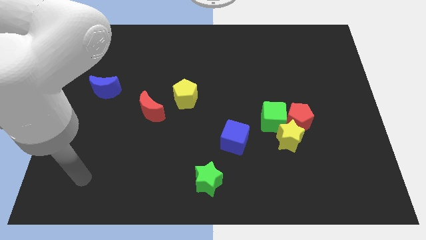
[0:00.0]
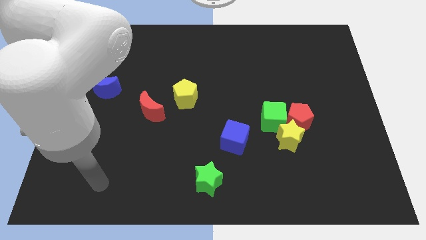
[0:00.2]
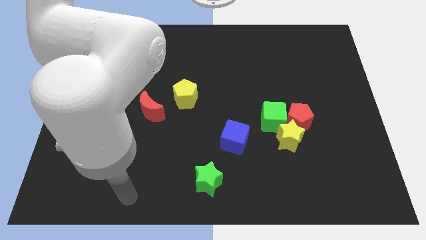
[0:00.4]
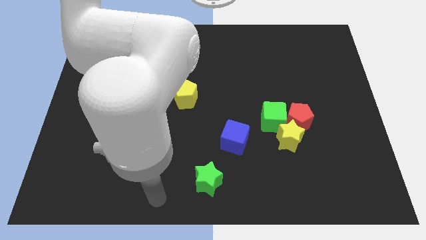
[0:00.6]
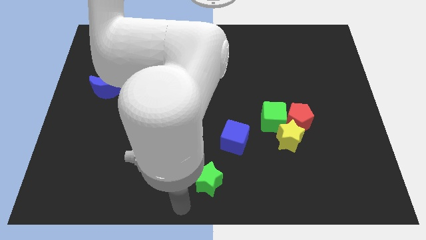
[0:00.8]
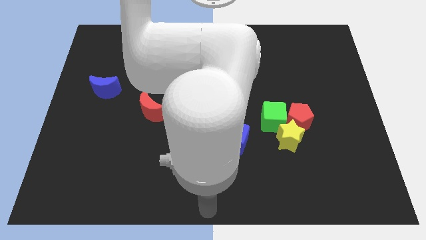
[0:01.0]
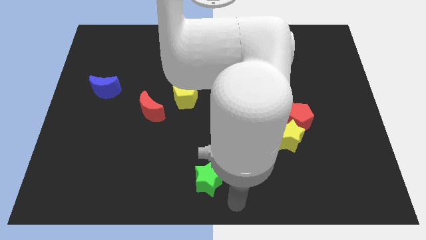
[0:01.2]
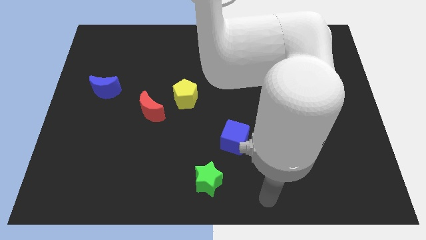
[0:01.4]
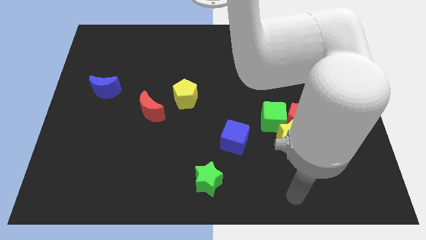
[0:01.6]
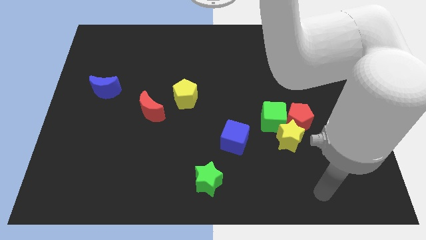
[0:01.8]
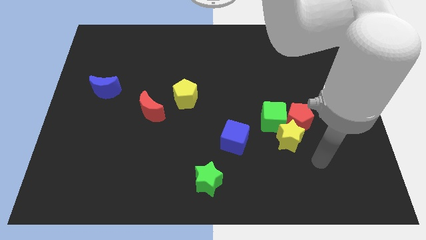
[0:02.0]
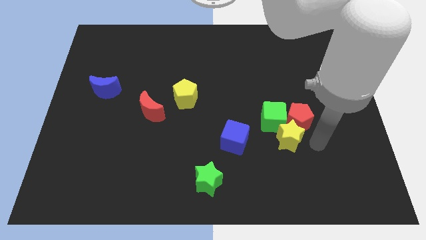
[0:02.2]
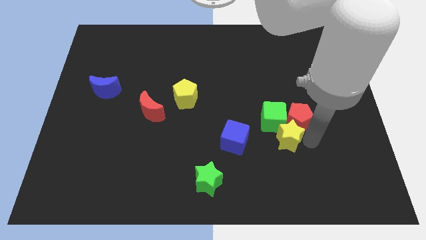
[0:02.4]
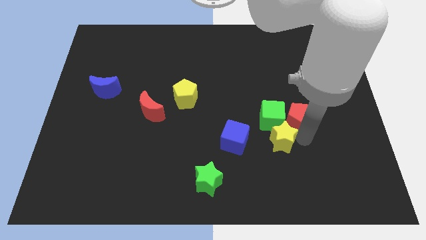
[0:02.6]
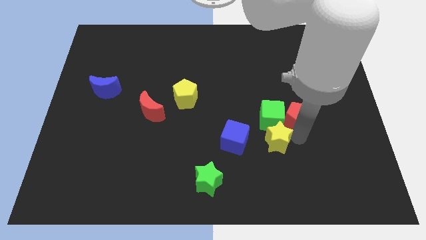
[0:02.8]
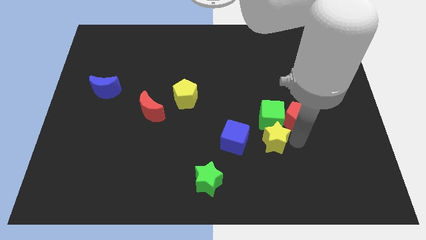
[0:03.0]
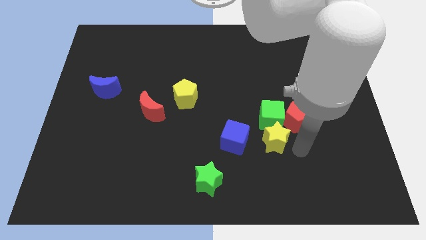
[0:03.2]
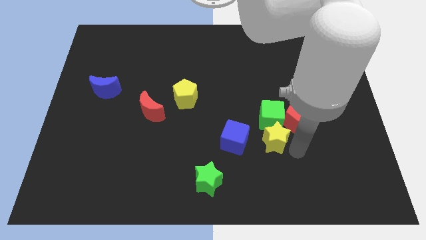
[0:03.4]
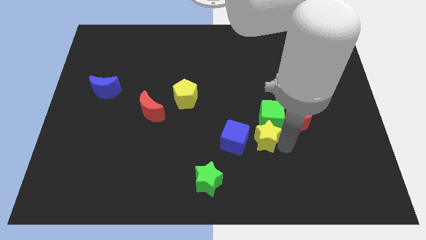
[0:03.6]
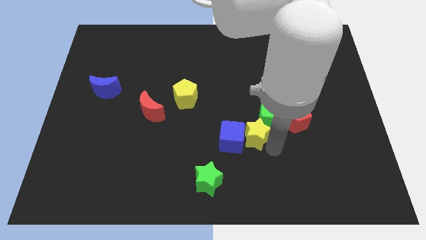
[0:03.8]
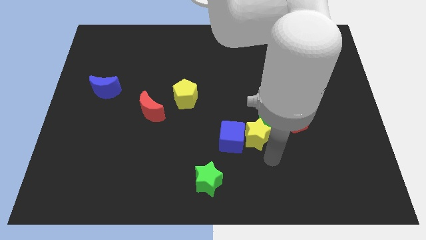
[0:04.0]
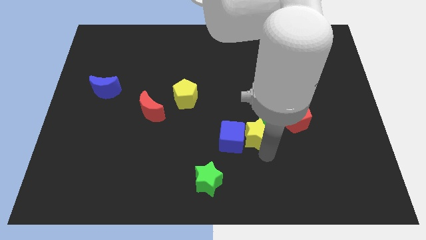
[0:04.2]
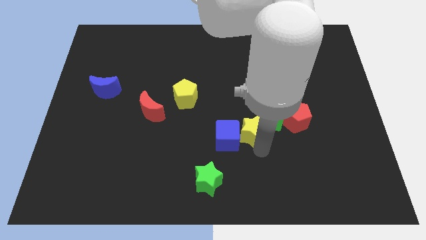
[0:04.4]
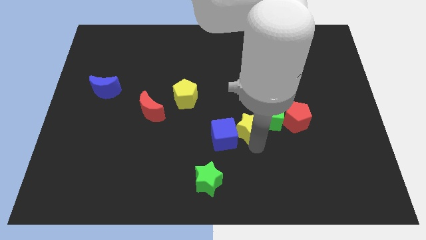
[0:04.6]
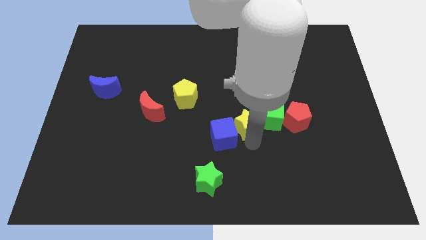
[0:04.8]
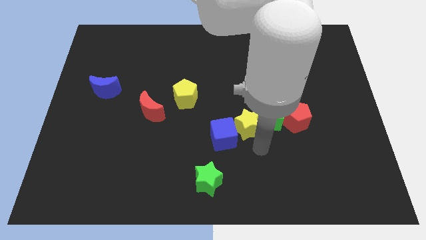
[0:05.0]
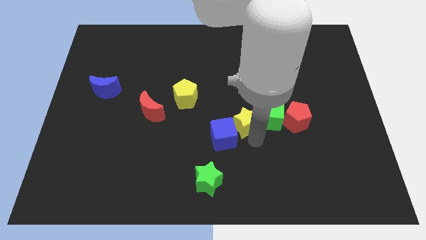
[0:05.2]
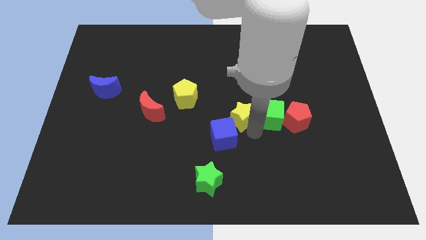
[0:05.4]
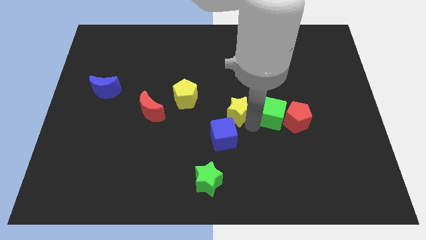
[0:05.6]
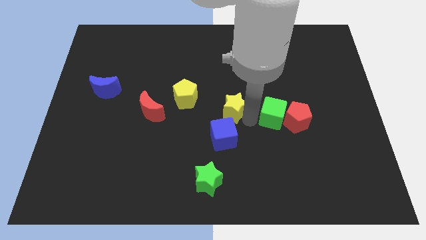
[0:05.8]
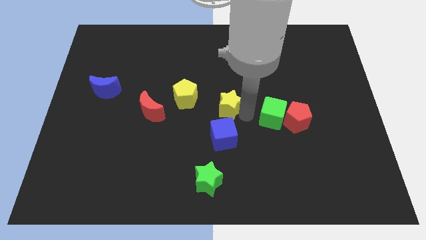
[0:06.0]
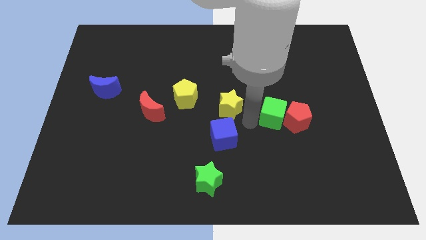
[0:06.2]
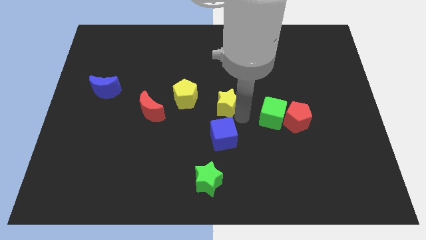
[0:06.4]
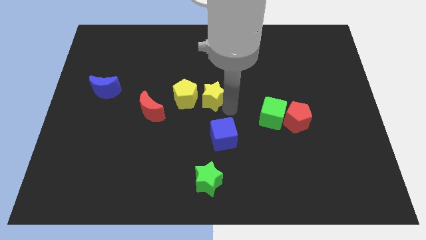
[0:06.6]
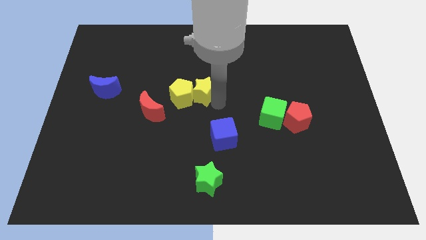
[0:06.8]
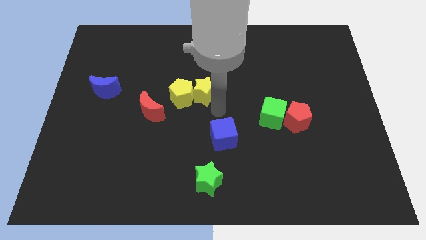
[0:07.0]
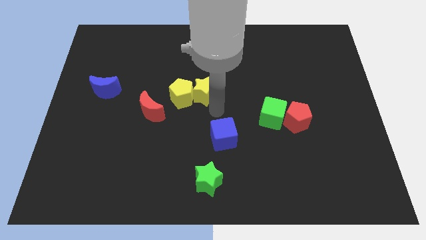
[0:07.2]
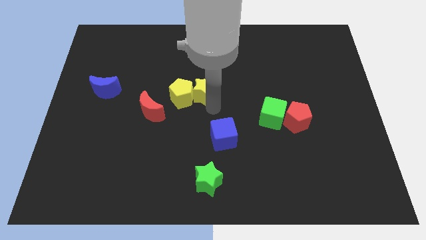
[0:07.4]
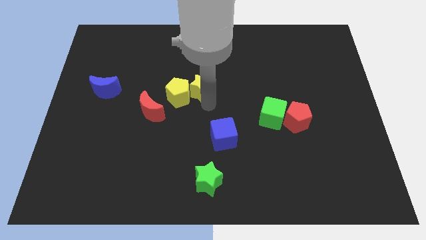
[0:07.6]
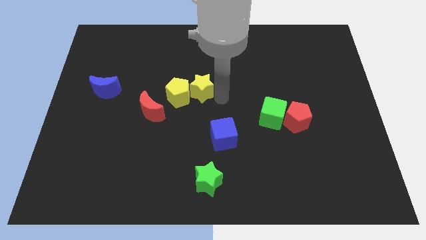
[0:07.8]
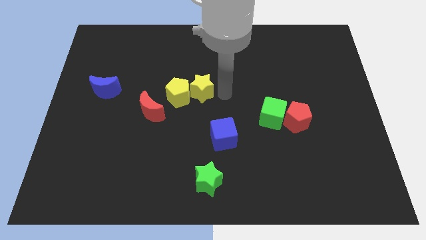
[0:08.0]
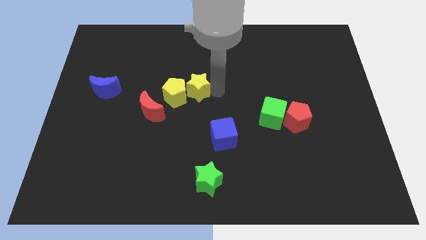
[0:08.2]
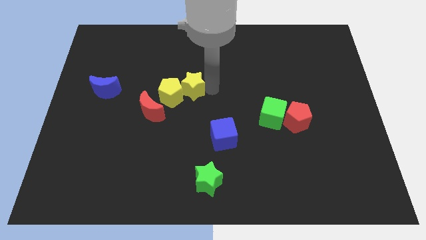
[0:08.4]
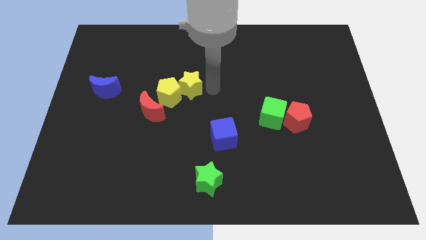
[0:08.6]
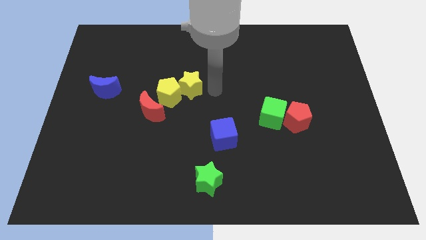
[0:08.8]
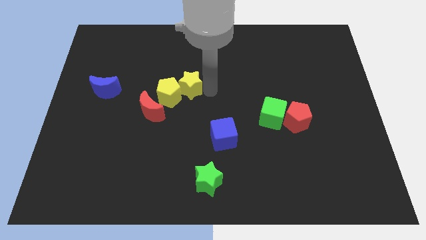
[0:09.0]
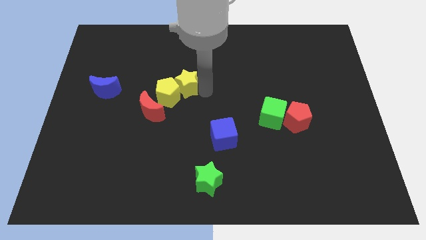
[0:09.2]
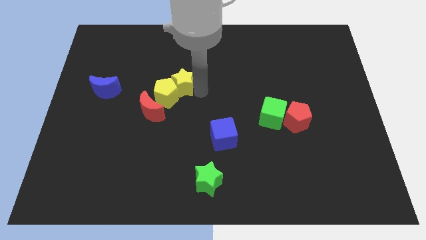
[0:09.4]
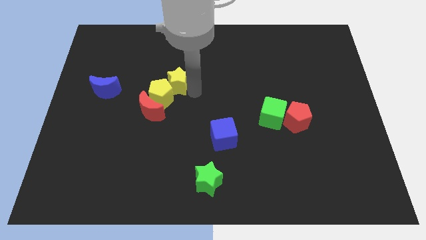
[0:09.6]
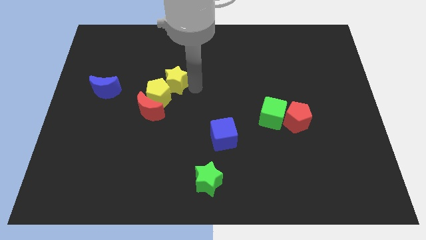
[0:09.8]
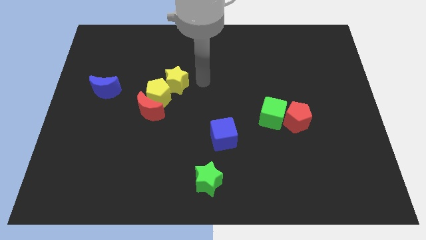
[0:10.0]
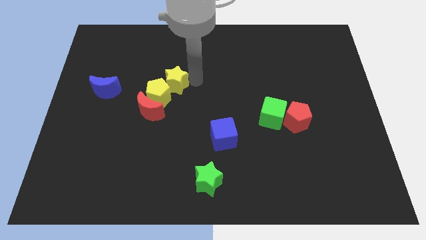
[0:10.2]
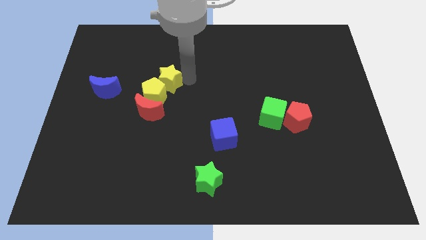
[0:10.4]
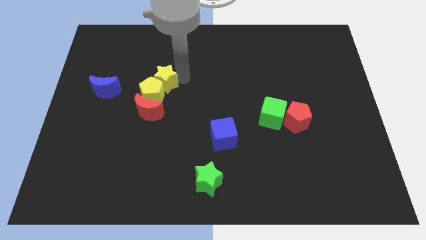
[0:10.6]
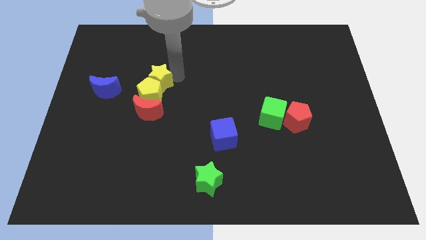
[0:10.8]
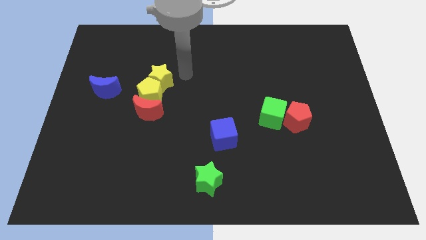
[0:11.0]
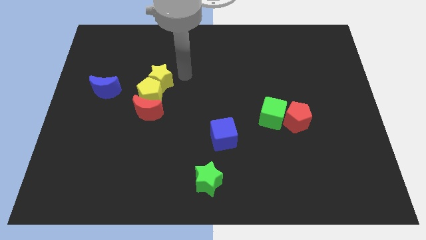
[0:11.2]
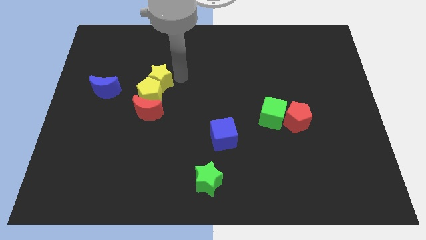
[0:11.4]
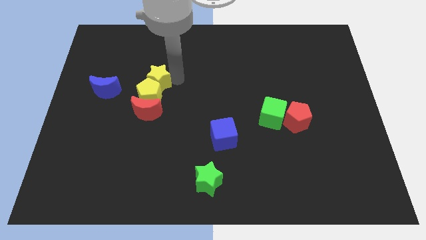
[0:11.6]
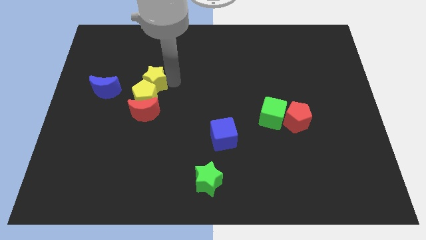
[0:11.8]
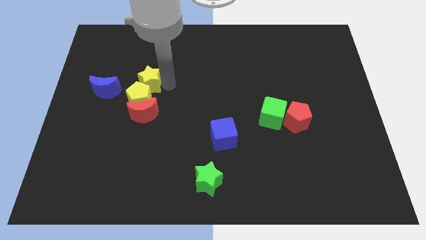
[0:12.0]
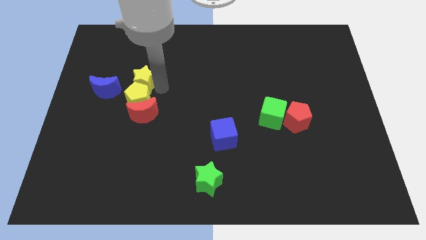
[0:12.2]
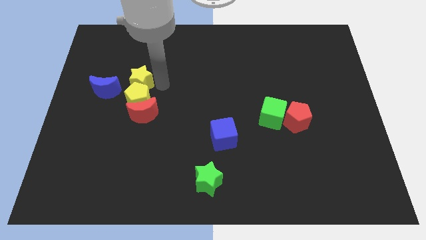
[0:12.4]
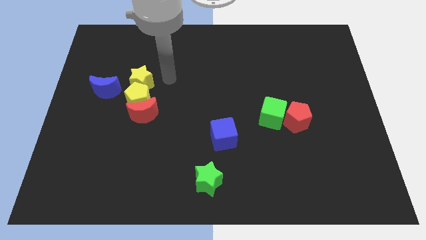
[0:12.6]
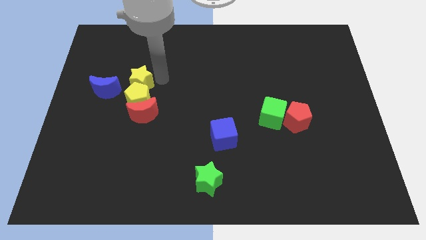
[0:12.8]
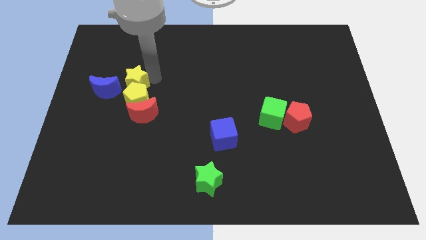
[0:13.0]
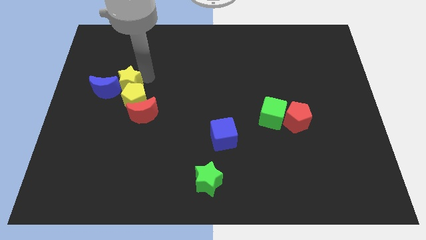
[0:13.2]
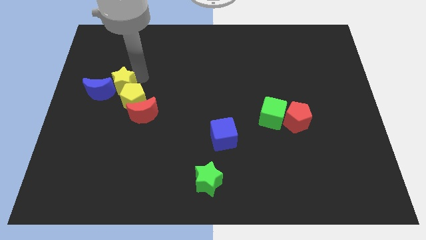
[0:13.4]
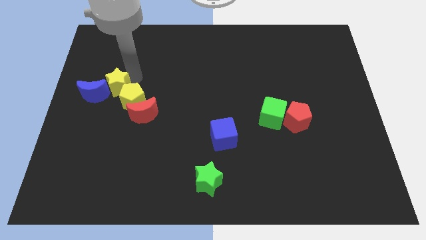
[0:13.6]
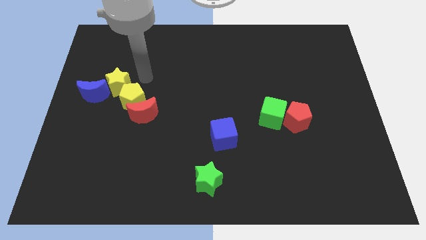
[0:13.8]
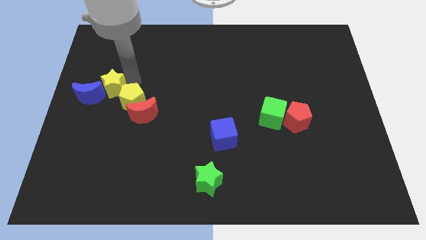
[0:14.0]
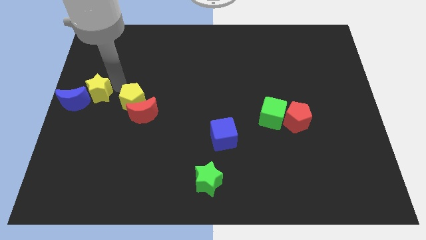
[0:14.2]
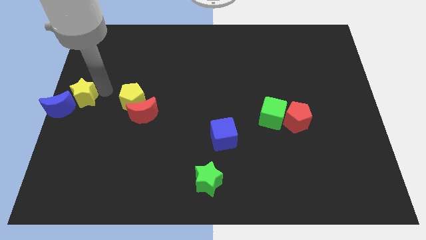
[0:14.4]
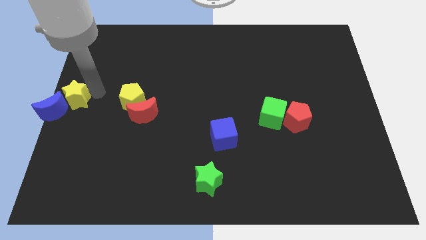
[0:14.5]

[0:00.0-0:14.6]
move the yellow star close to the blue moon
